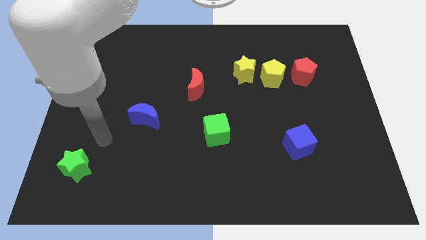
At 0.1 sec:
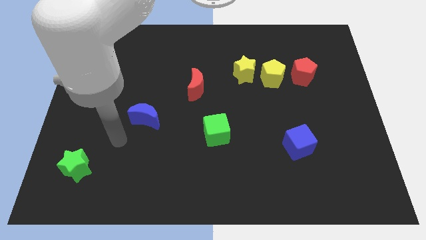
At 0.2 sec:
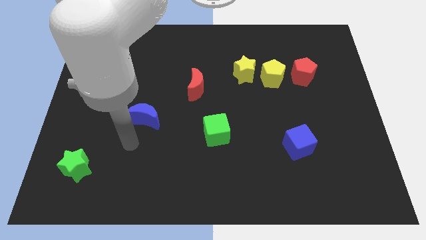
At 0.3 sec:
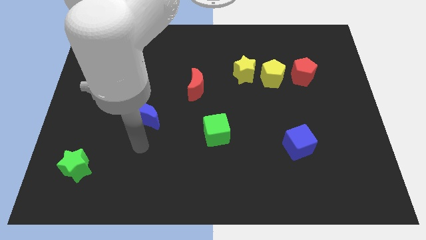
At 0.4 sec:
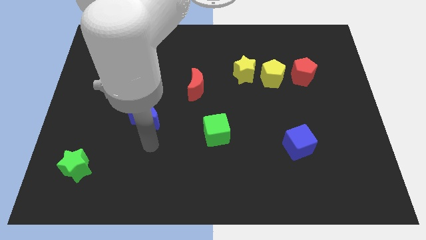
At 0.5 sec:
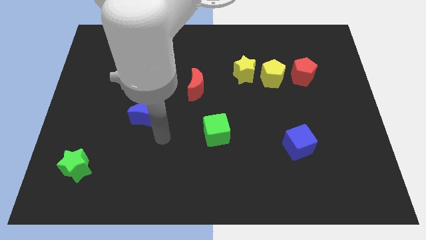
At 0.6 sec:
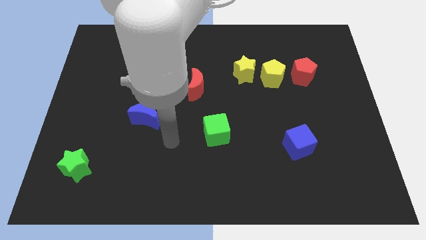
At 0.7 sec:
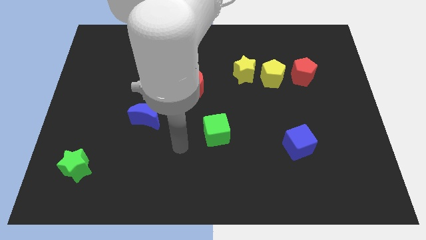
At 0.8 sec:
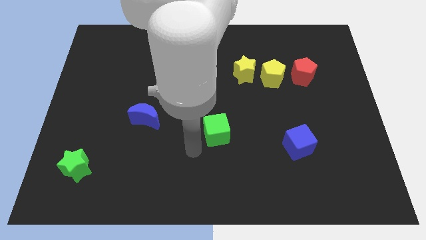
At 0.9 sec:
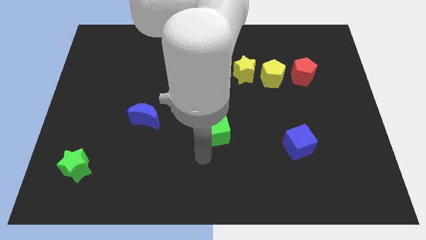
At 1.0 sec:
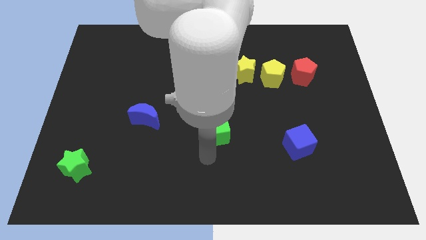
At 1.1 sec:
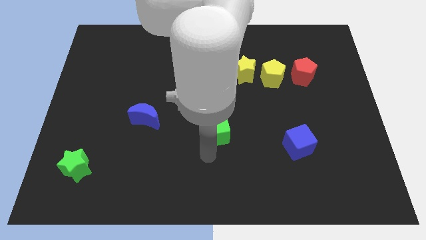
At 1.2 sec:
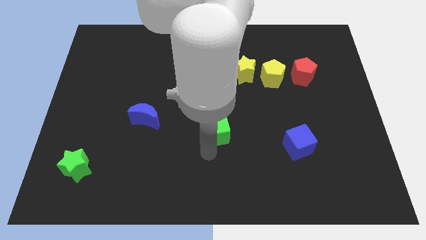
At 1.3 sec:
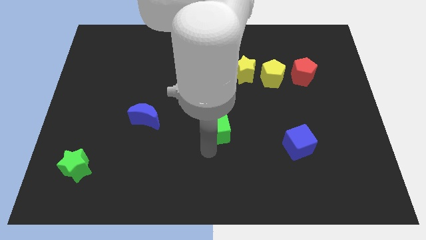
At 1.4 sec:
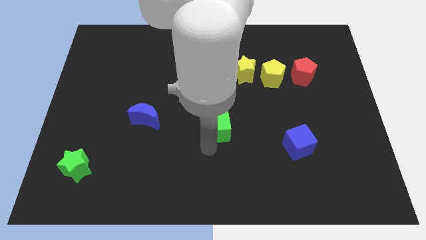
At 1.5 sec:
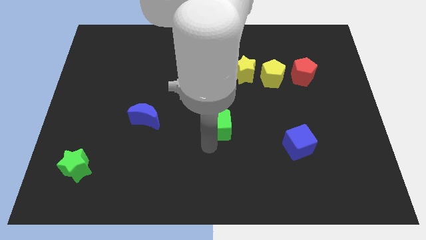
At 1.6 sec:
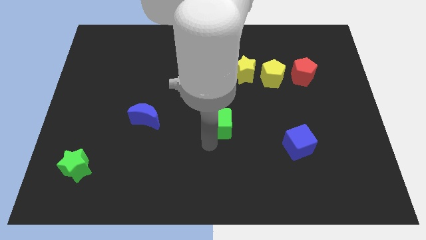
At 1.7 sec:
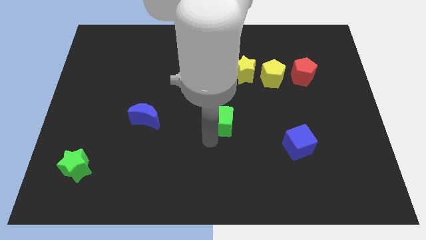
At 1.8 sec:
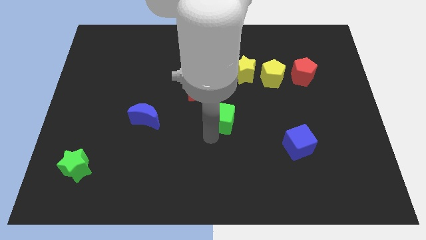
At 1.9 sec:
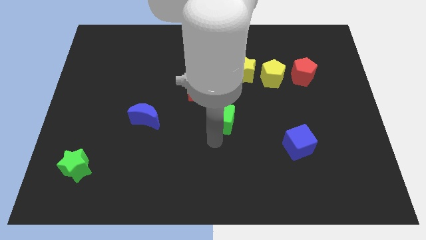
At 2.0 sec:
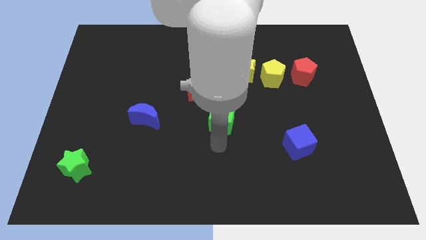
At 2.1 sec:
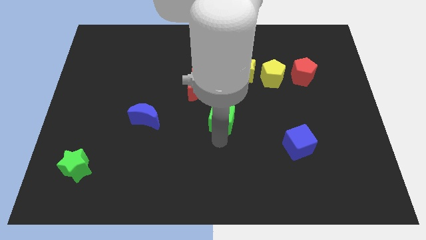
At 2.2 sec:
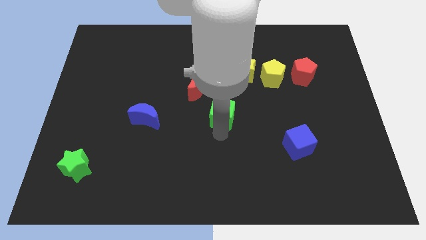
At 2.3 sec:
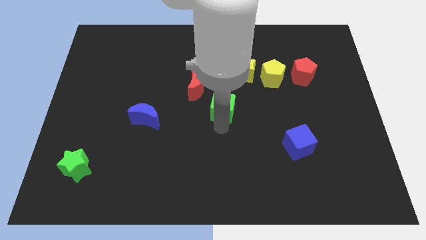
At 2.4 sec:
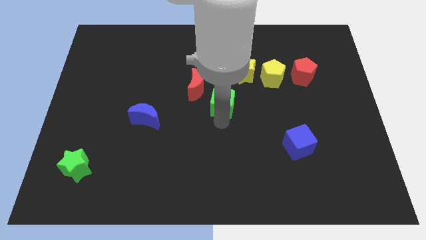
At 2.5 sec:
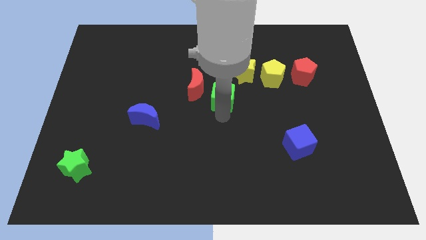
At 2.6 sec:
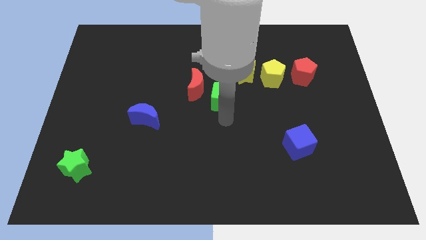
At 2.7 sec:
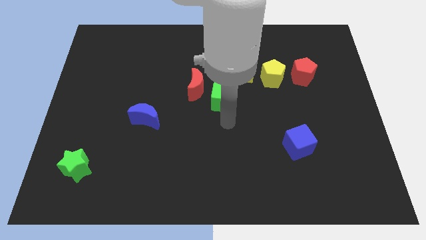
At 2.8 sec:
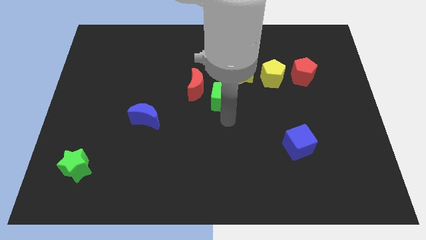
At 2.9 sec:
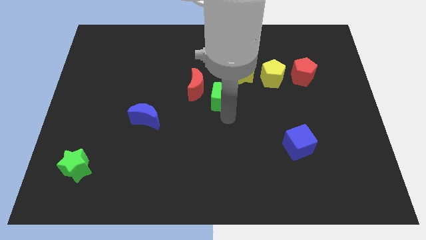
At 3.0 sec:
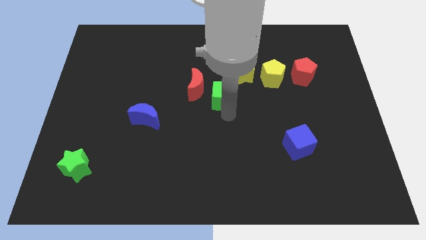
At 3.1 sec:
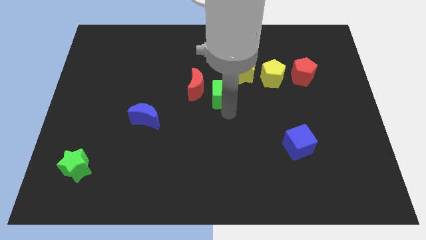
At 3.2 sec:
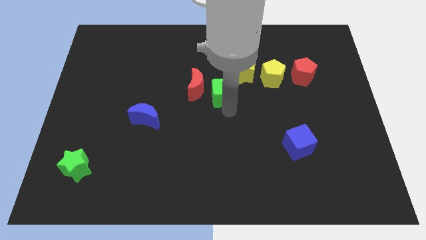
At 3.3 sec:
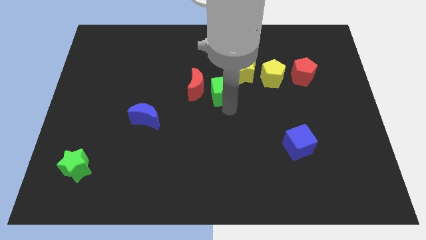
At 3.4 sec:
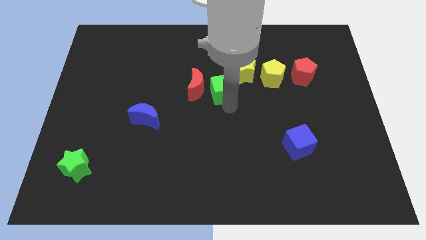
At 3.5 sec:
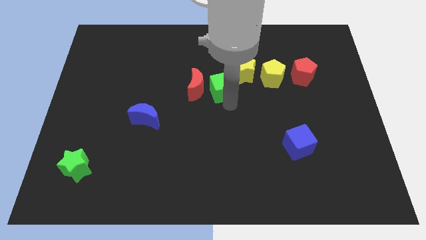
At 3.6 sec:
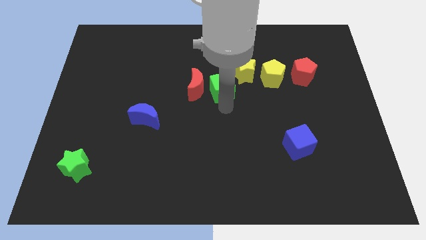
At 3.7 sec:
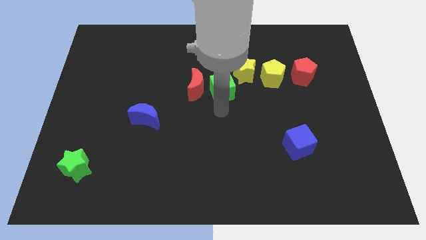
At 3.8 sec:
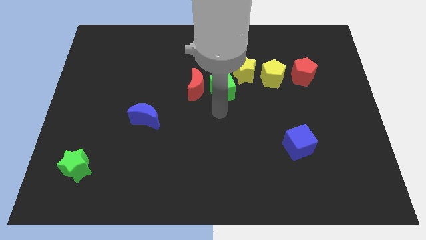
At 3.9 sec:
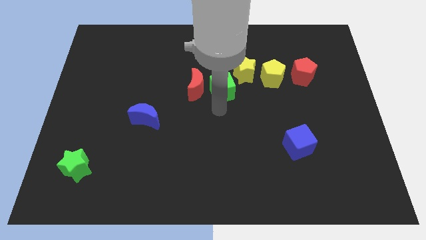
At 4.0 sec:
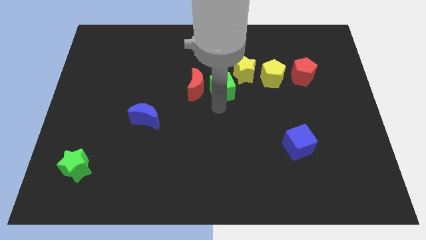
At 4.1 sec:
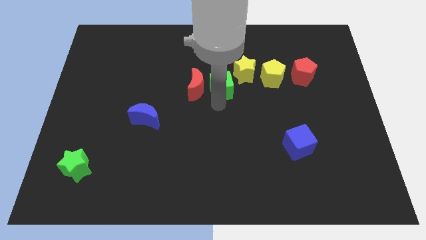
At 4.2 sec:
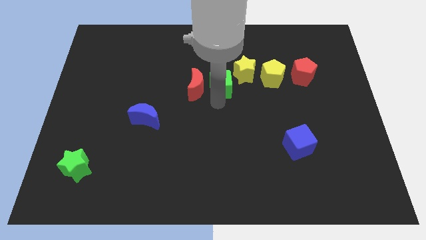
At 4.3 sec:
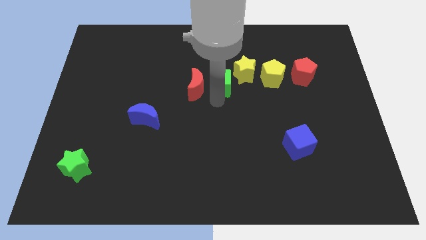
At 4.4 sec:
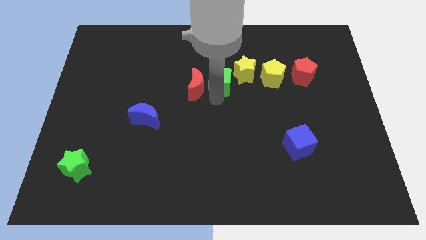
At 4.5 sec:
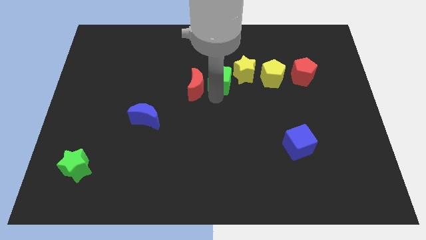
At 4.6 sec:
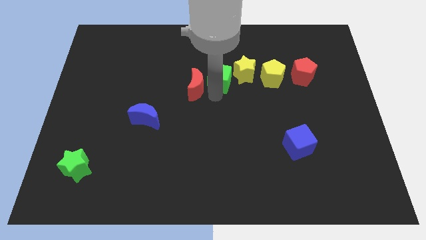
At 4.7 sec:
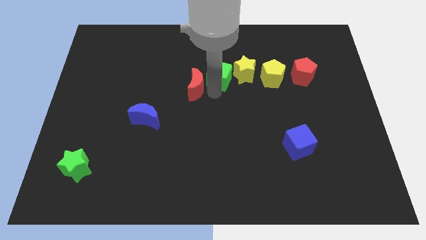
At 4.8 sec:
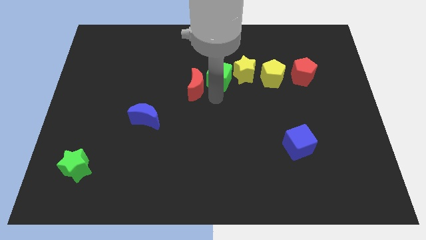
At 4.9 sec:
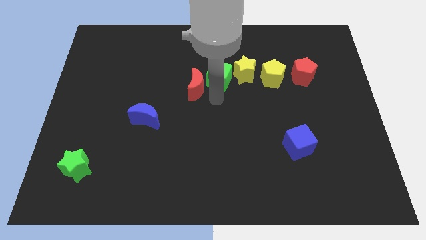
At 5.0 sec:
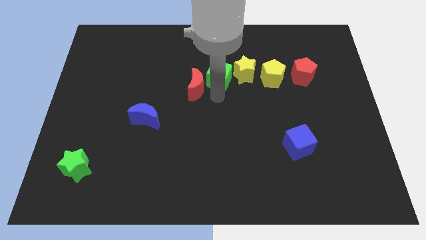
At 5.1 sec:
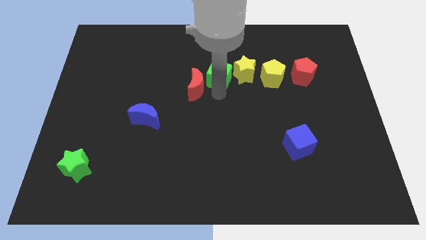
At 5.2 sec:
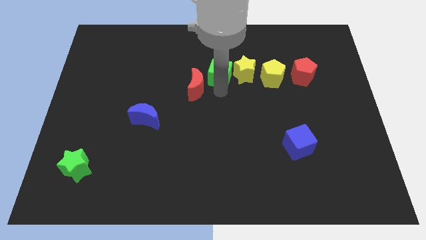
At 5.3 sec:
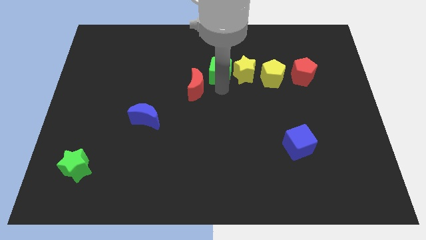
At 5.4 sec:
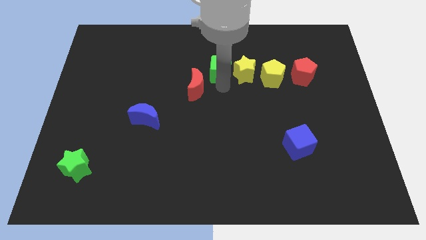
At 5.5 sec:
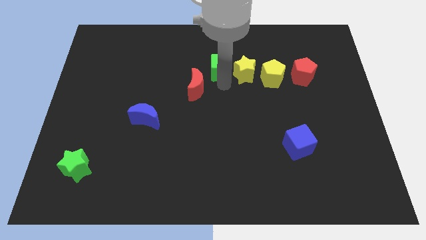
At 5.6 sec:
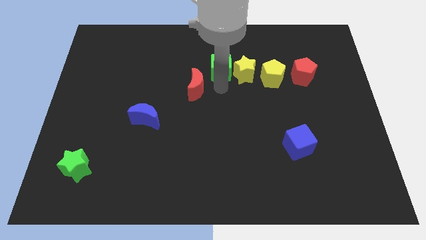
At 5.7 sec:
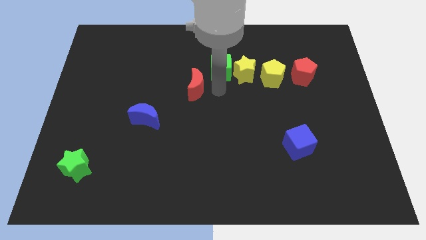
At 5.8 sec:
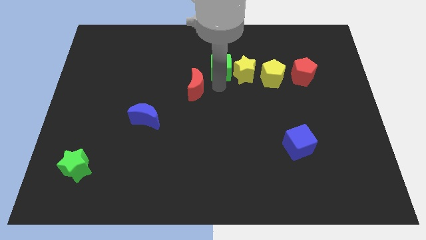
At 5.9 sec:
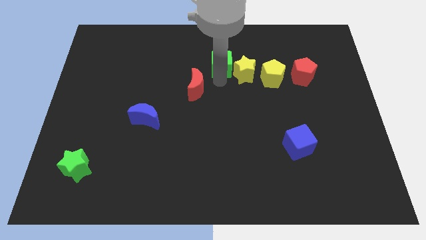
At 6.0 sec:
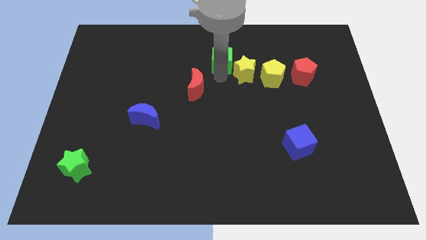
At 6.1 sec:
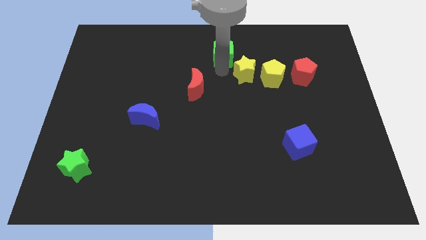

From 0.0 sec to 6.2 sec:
move the green cube to the towards your base

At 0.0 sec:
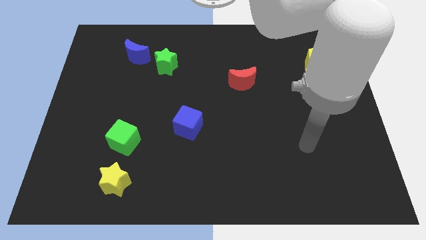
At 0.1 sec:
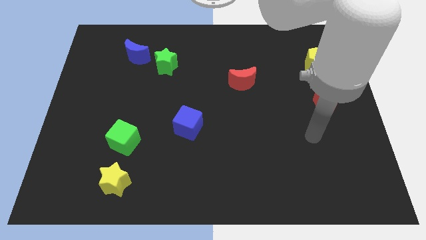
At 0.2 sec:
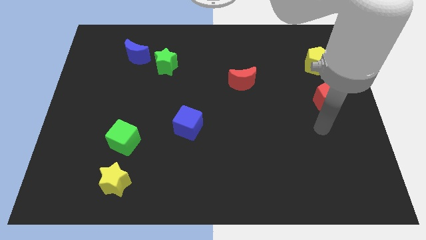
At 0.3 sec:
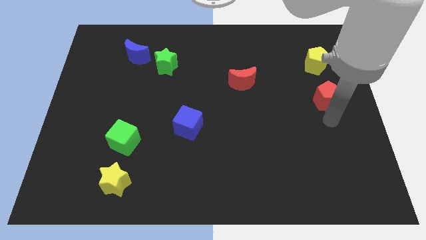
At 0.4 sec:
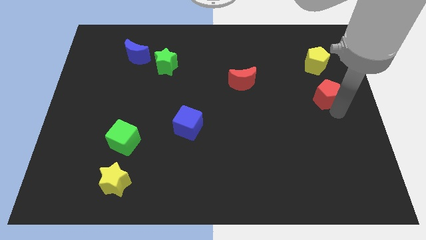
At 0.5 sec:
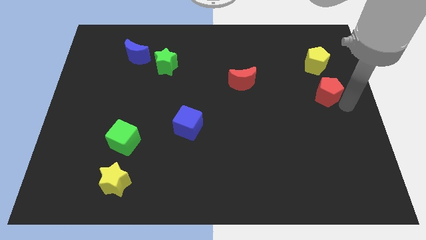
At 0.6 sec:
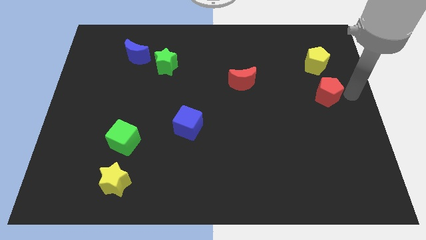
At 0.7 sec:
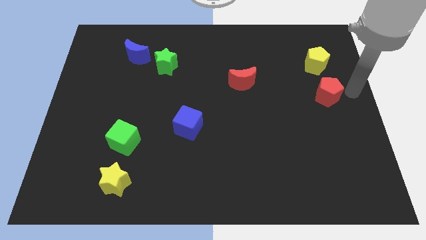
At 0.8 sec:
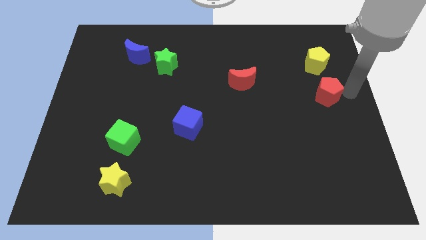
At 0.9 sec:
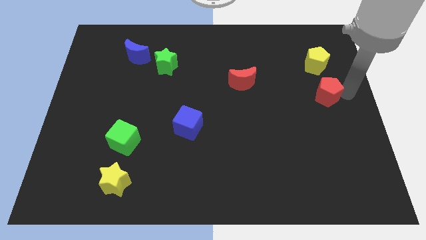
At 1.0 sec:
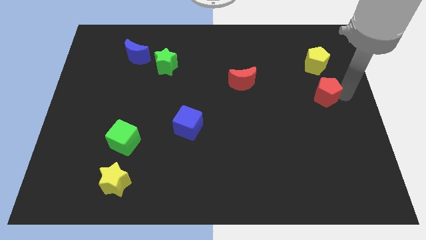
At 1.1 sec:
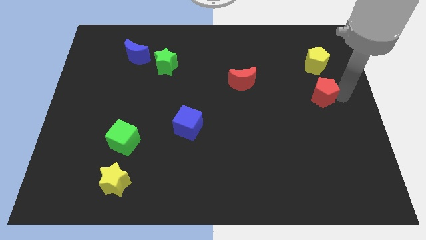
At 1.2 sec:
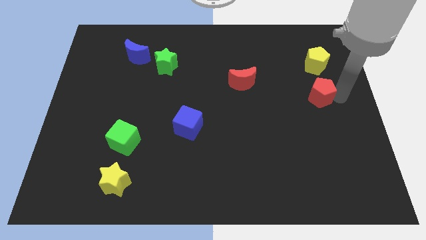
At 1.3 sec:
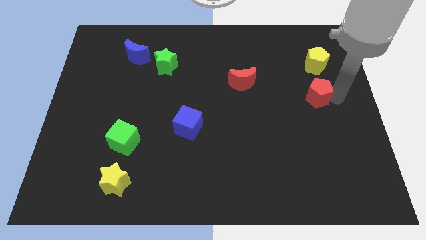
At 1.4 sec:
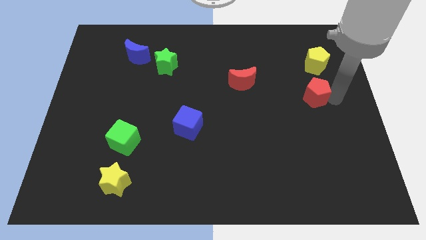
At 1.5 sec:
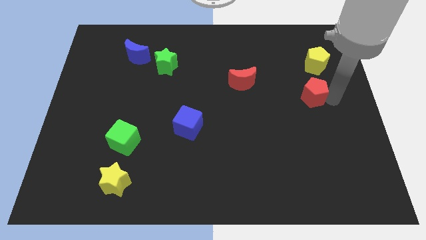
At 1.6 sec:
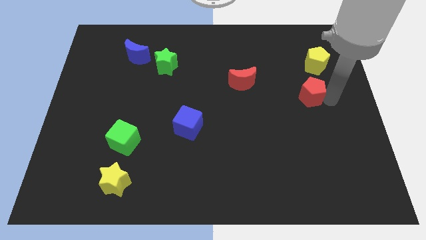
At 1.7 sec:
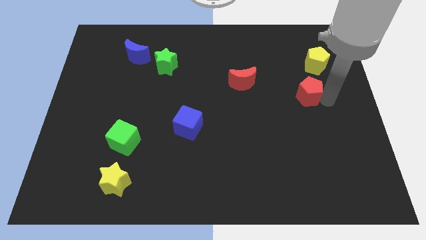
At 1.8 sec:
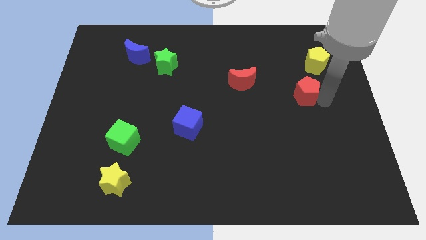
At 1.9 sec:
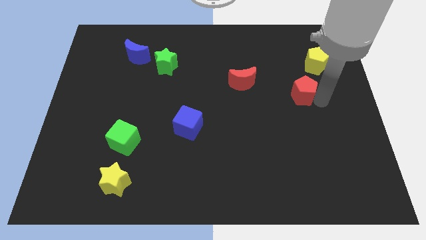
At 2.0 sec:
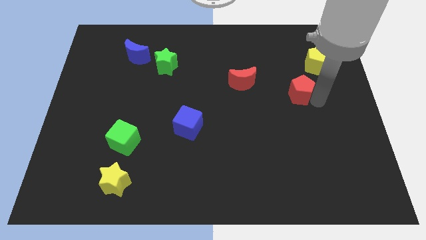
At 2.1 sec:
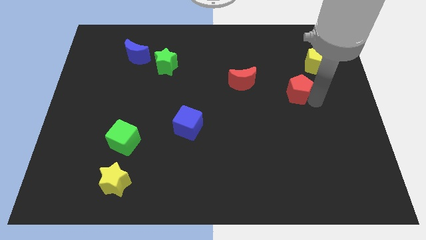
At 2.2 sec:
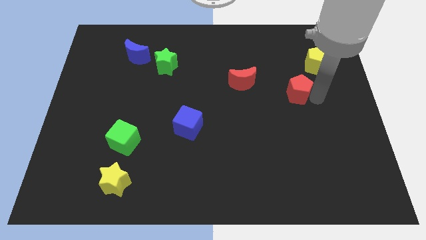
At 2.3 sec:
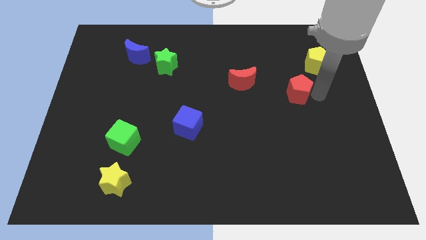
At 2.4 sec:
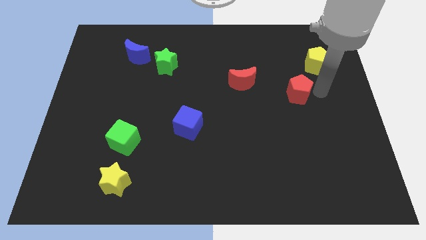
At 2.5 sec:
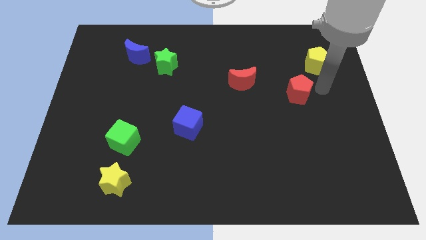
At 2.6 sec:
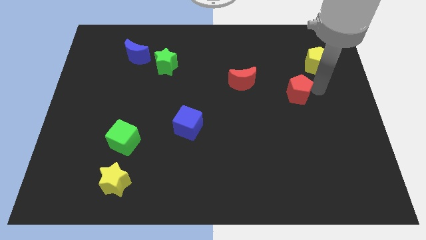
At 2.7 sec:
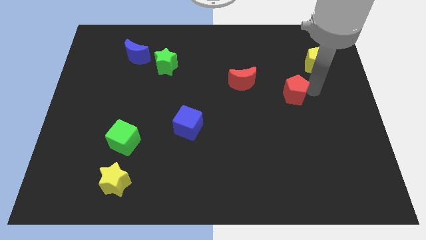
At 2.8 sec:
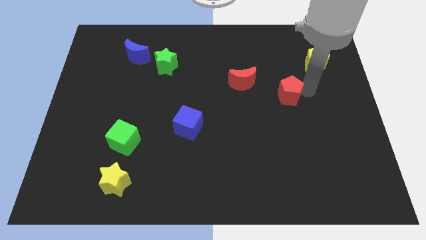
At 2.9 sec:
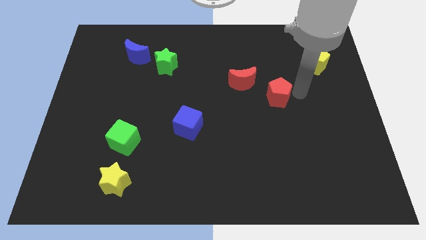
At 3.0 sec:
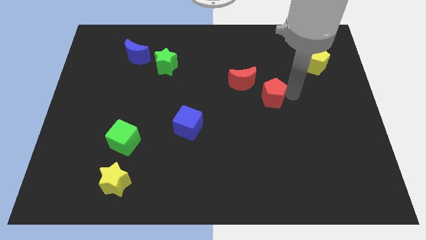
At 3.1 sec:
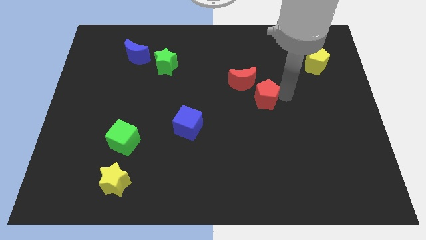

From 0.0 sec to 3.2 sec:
slide the red pentagon to the center
